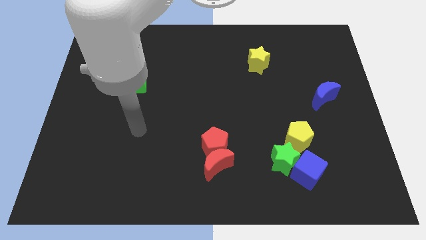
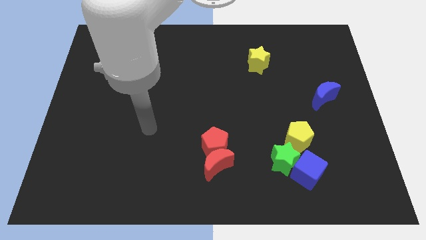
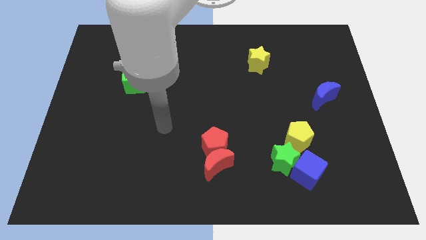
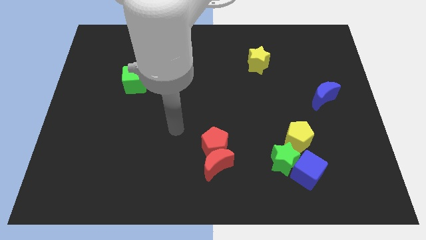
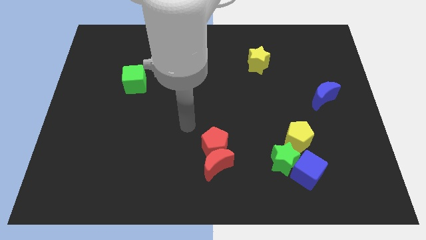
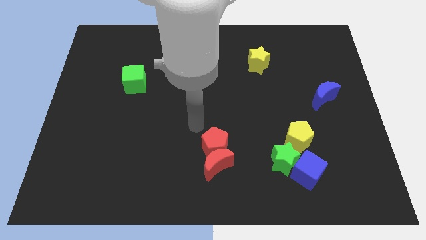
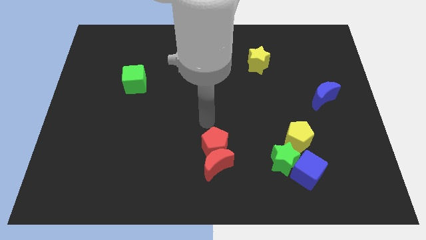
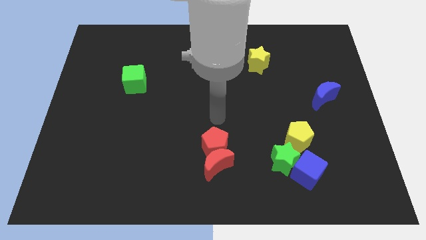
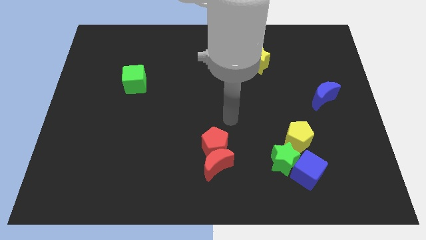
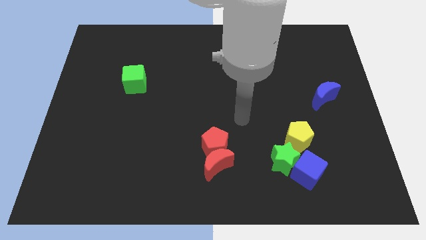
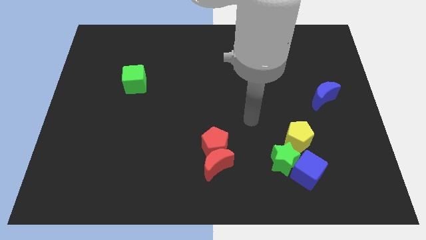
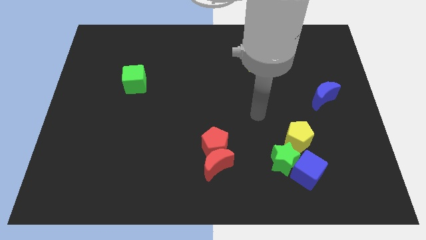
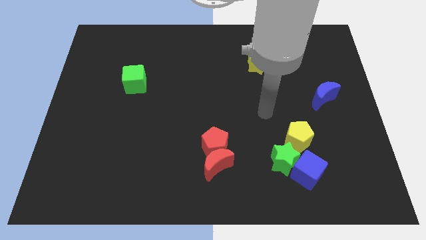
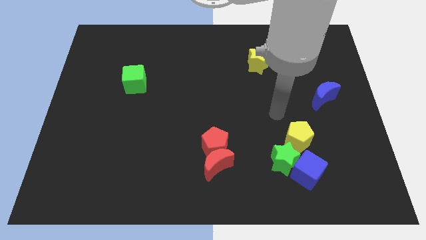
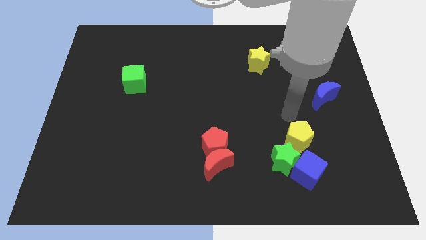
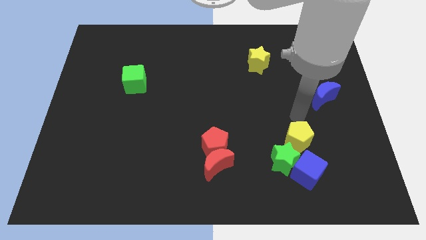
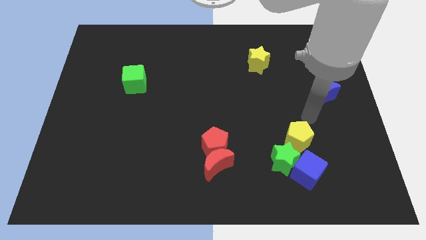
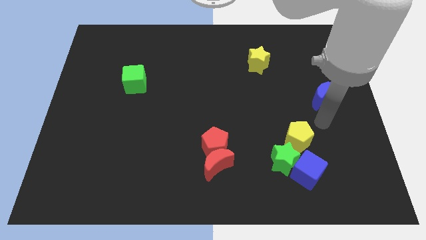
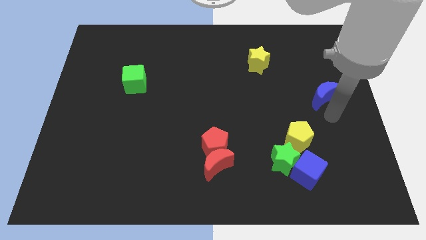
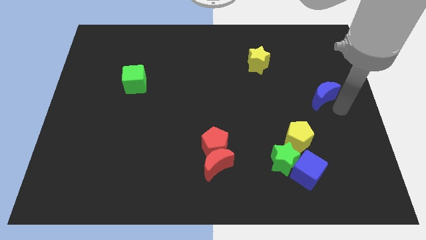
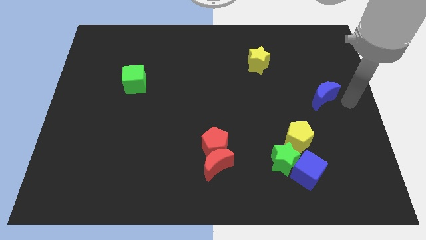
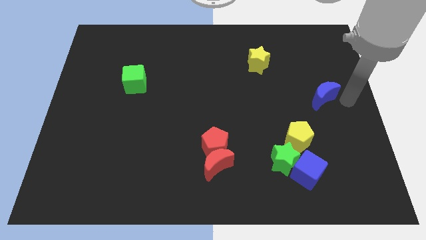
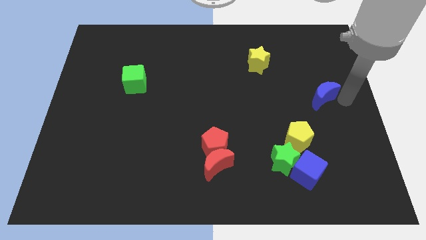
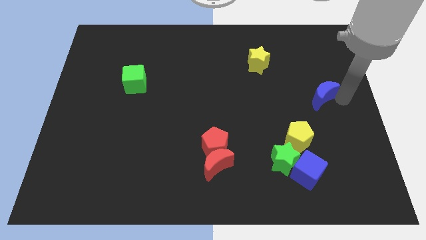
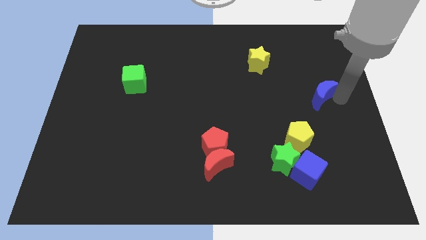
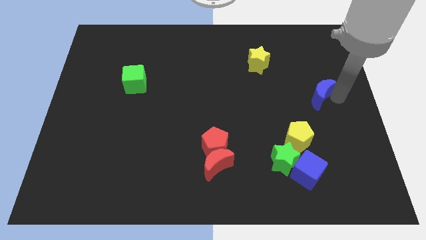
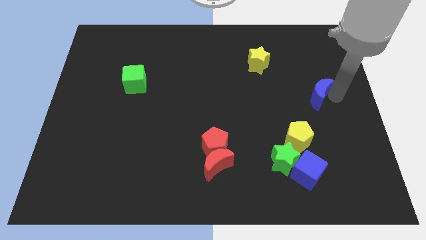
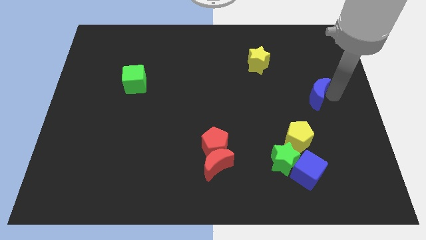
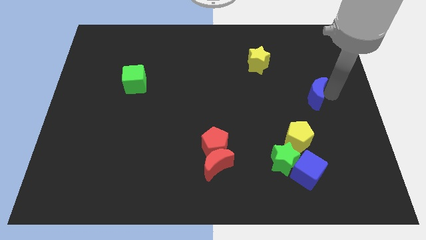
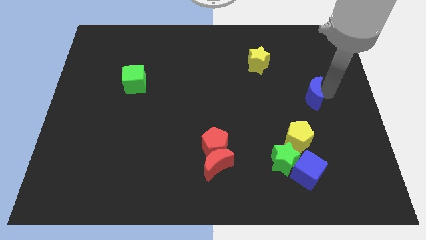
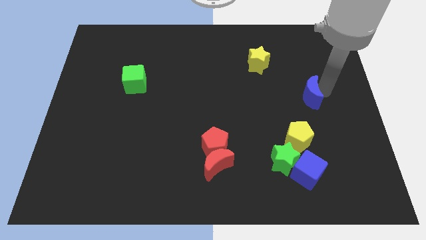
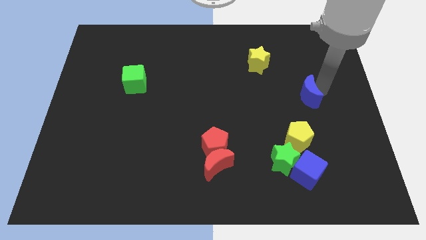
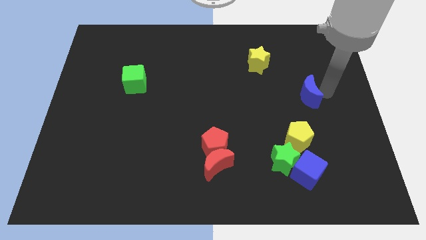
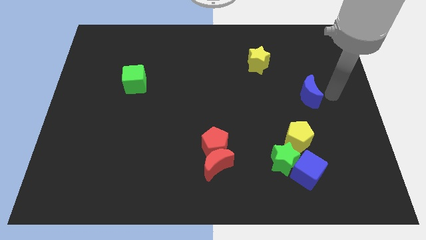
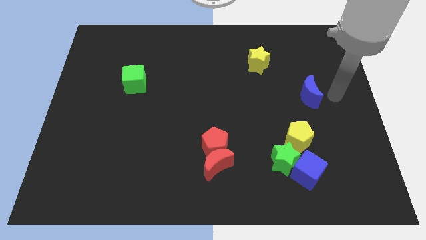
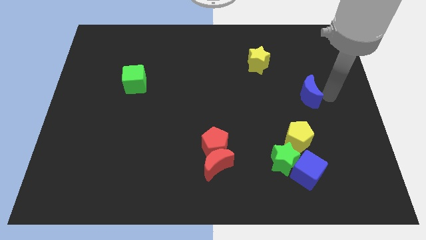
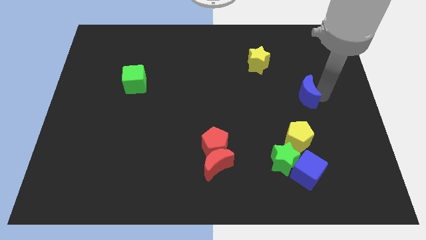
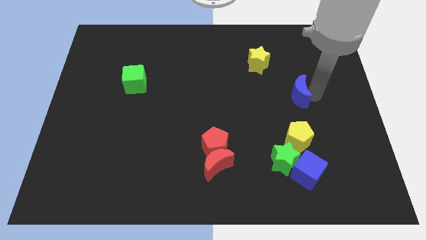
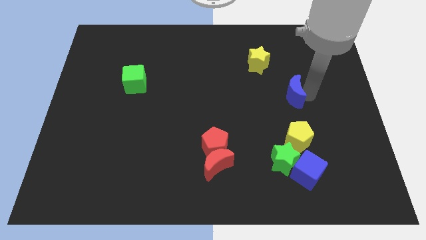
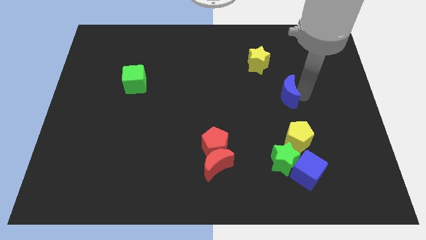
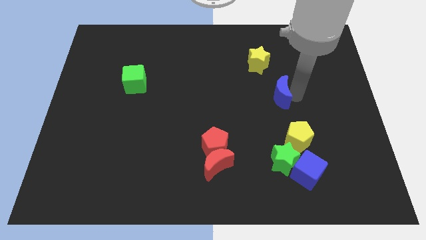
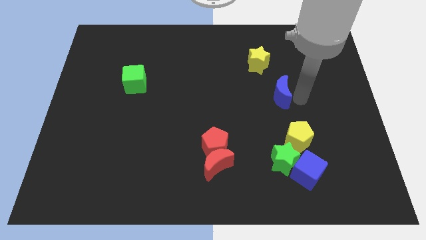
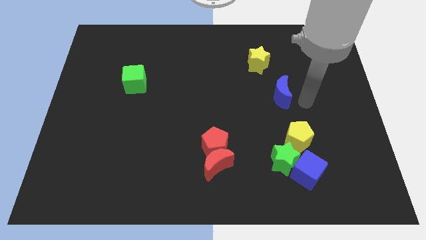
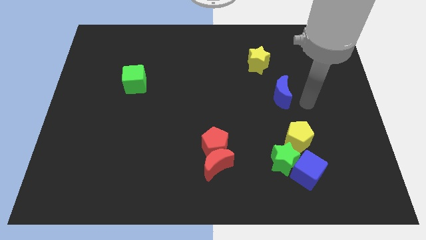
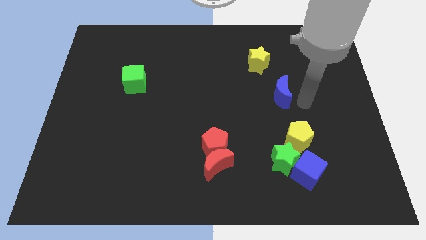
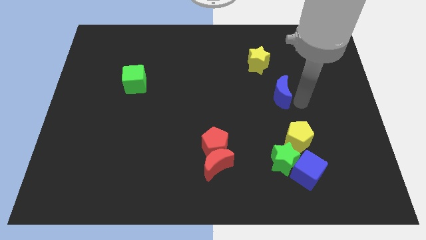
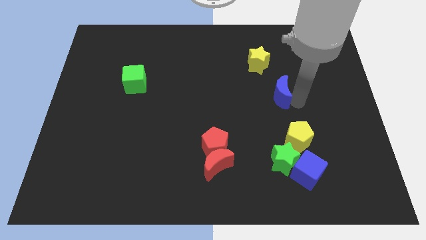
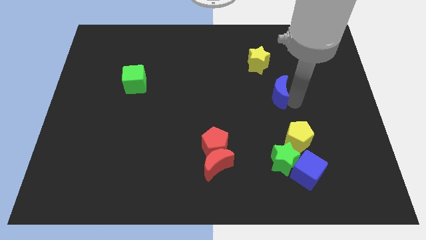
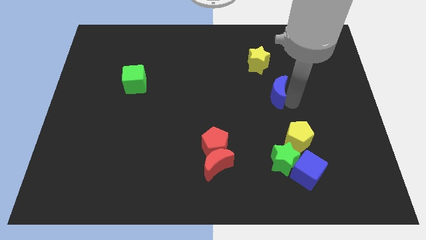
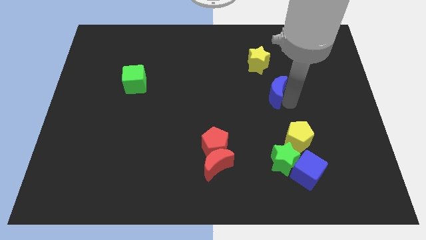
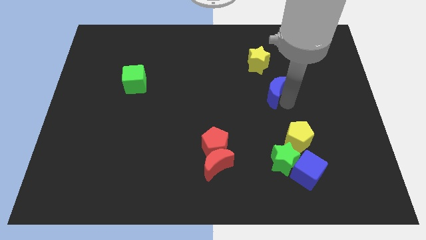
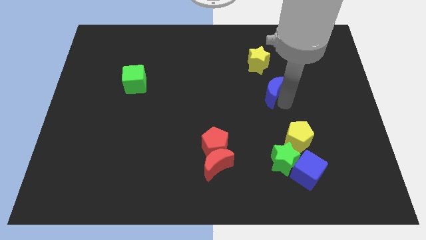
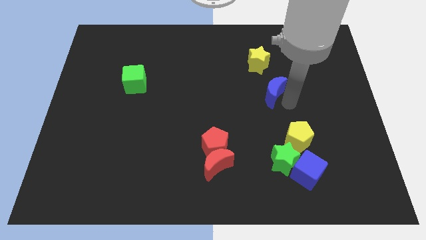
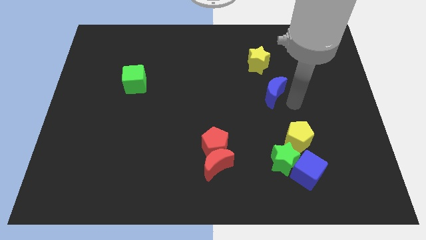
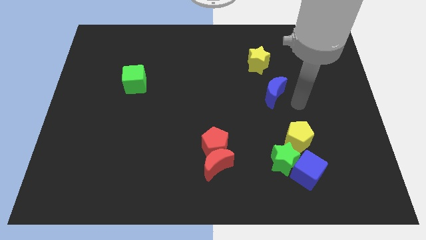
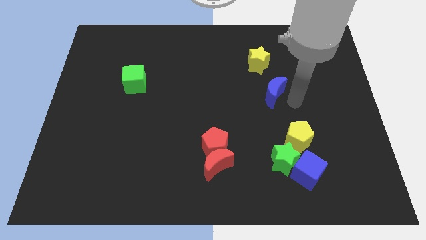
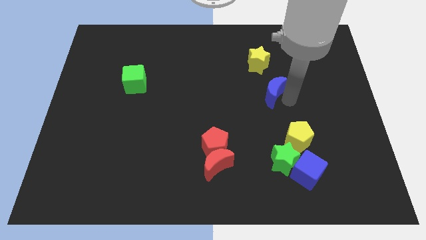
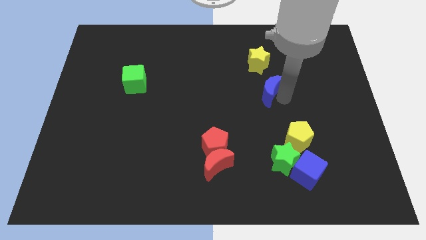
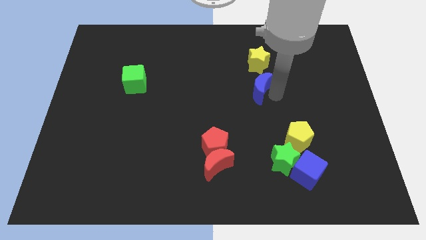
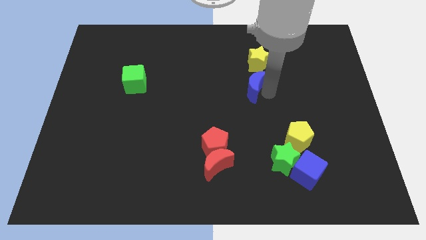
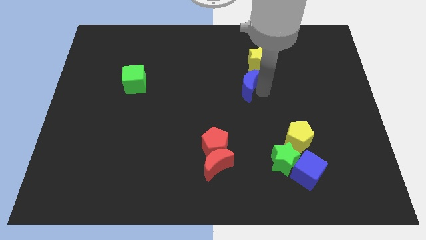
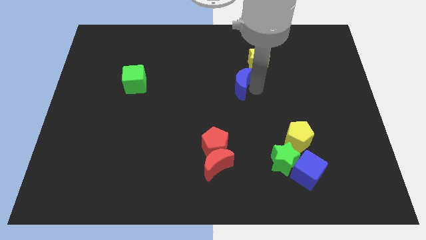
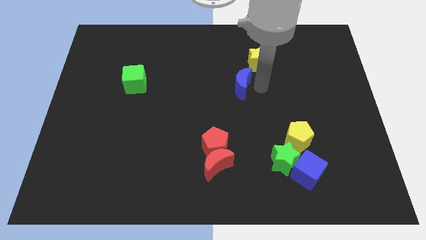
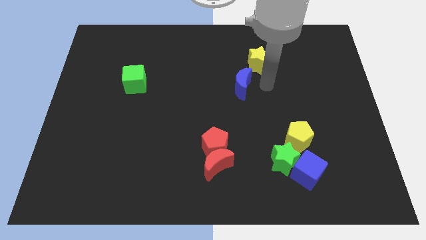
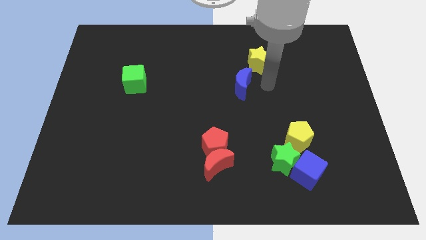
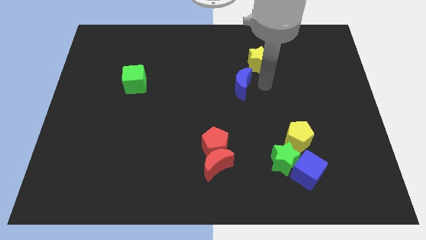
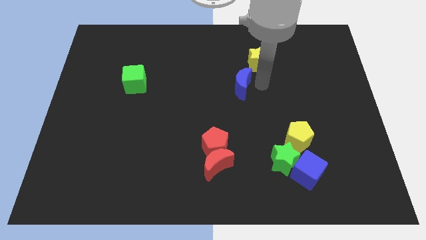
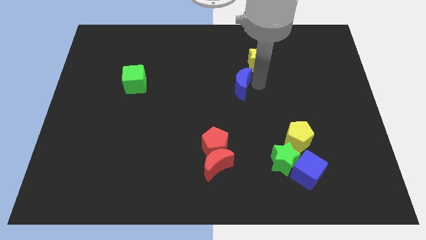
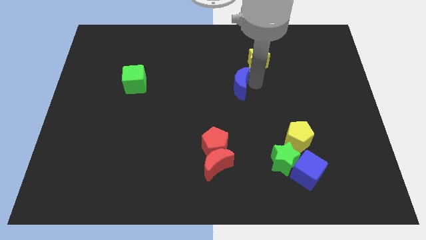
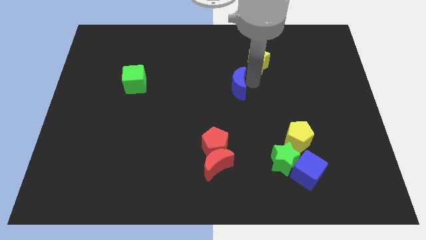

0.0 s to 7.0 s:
move the blue moon left

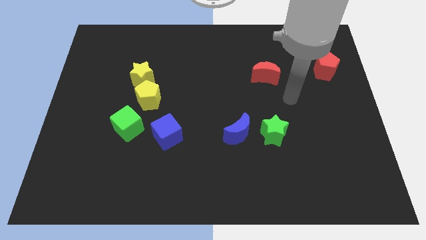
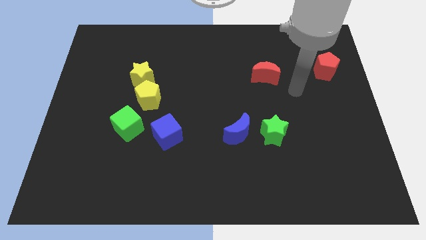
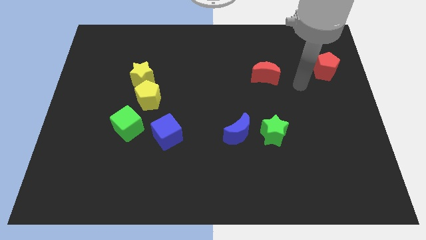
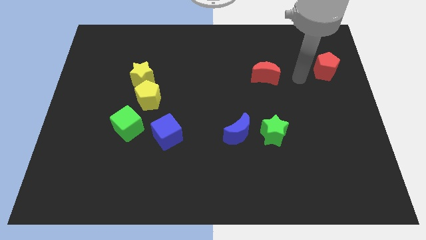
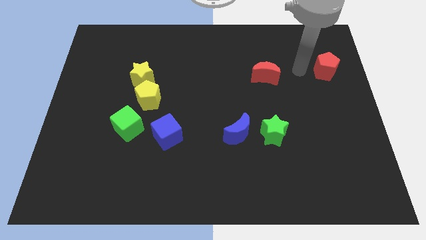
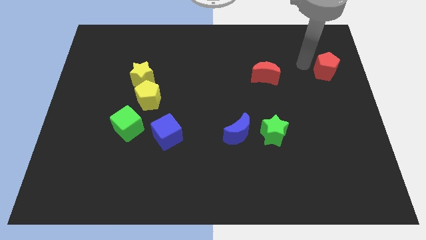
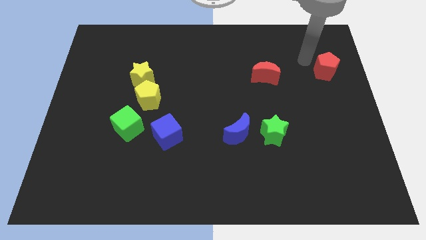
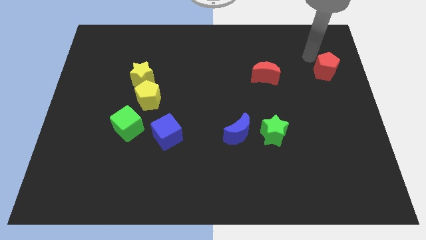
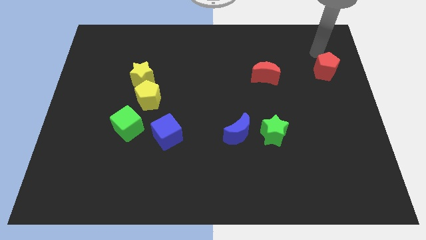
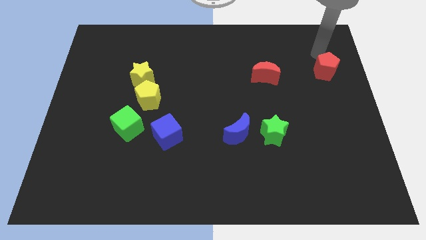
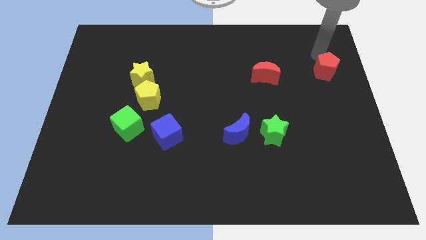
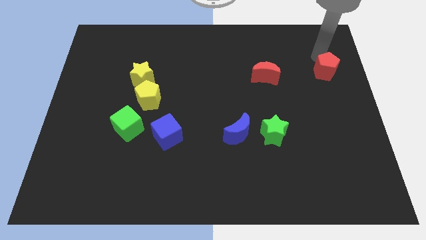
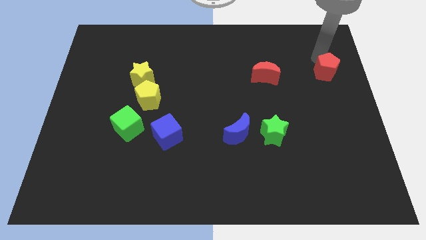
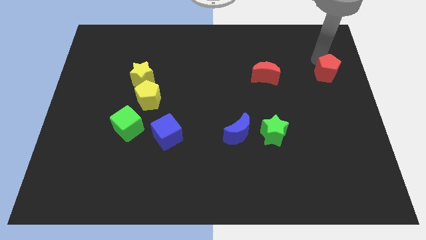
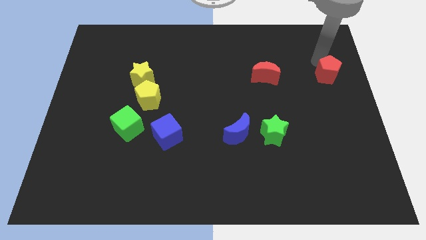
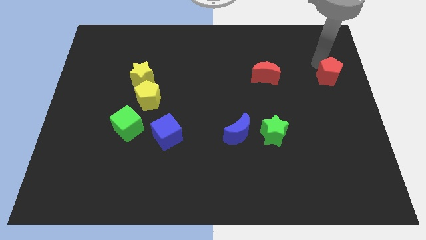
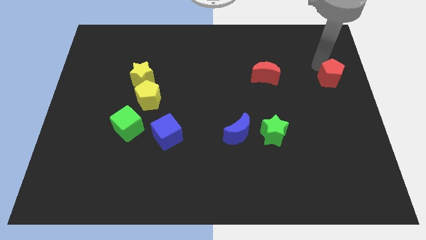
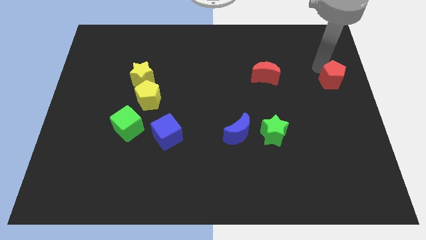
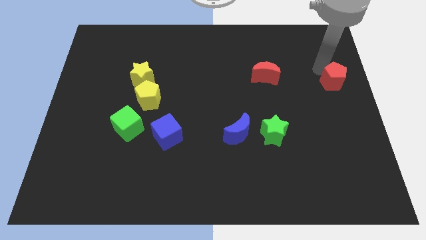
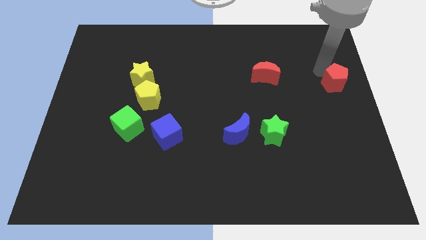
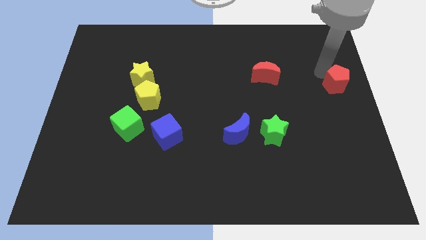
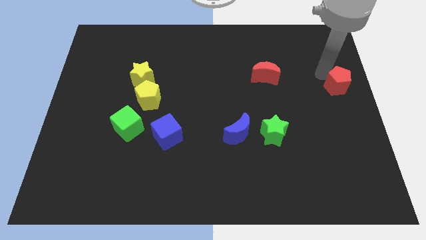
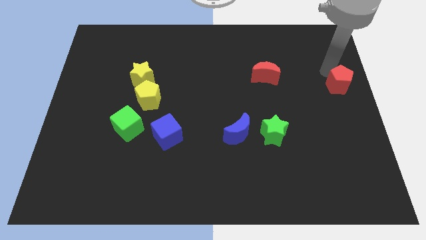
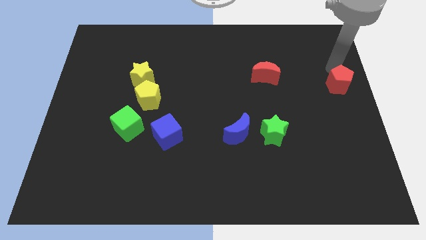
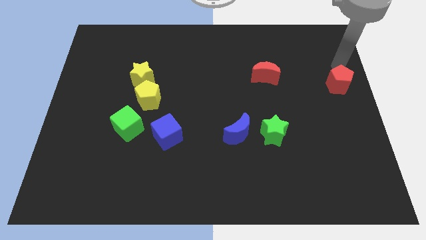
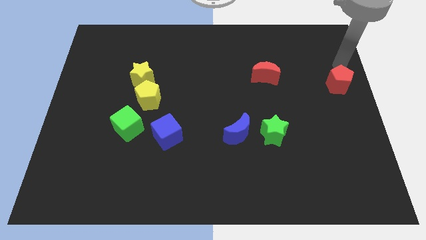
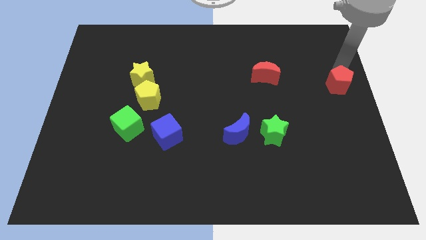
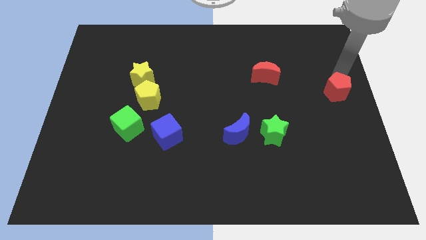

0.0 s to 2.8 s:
slightly slide the red pentagon downwards
